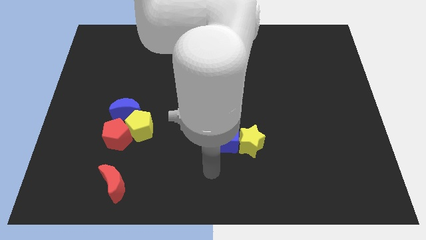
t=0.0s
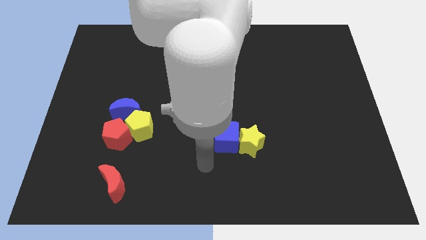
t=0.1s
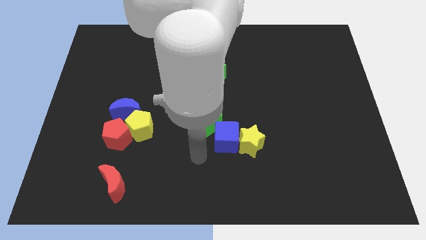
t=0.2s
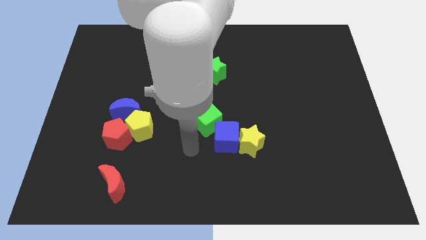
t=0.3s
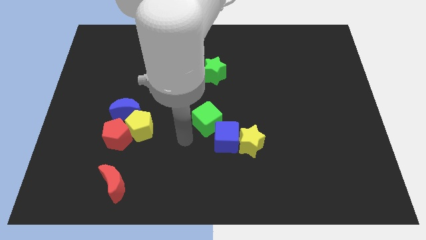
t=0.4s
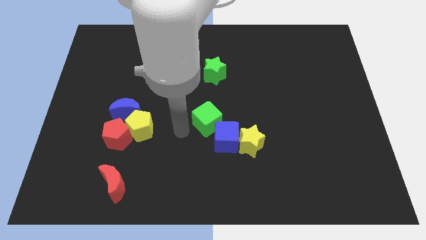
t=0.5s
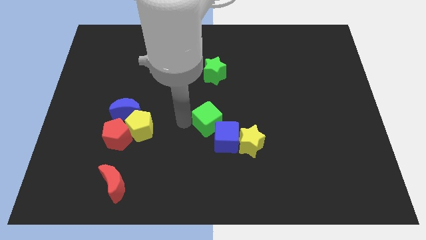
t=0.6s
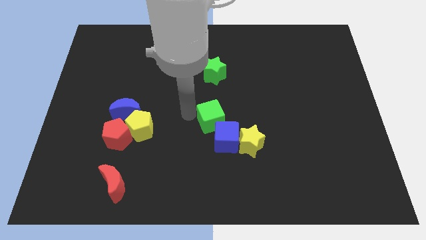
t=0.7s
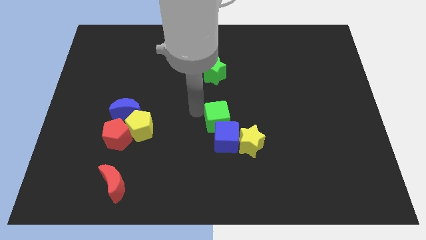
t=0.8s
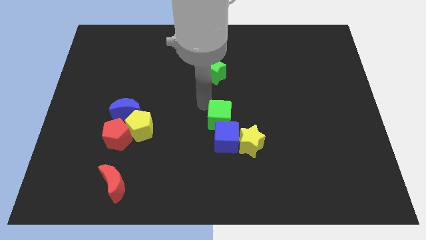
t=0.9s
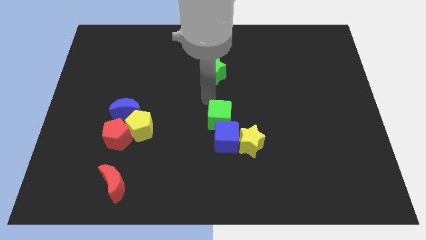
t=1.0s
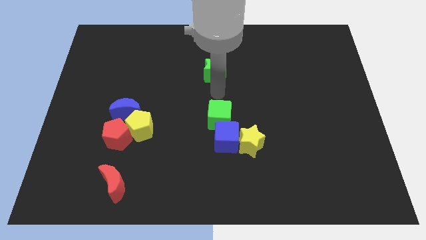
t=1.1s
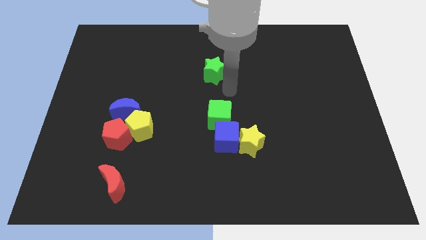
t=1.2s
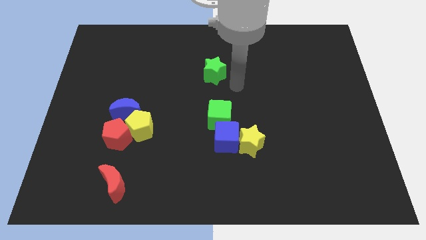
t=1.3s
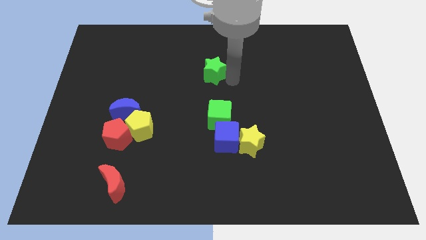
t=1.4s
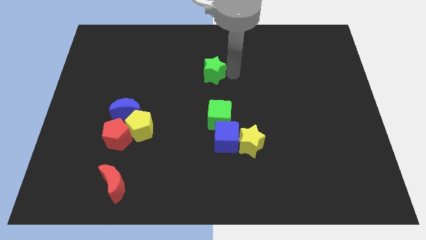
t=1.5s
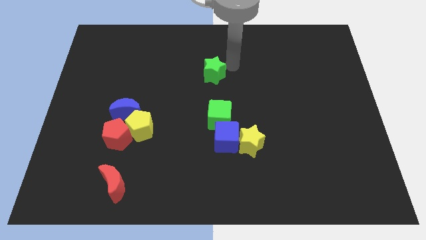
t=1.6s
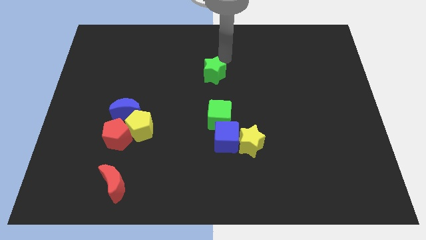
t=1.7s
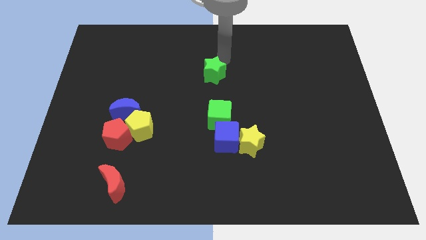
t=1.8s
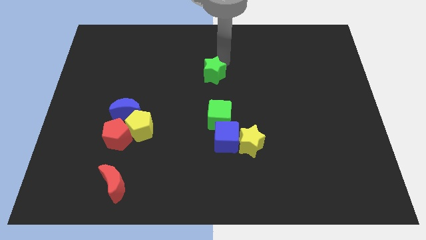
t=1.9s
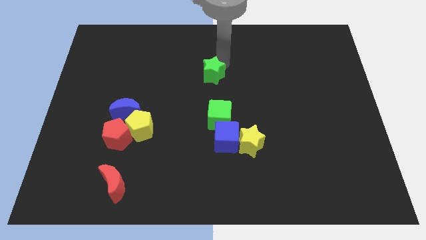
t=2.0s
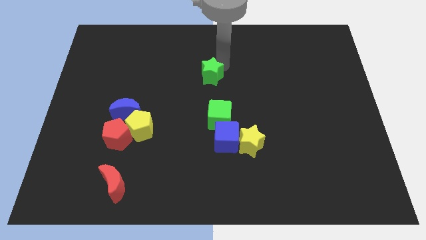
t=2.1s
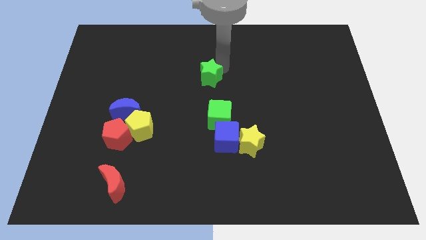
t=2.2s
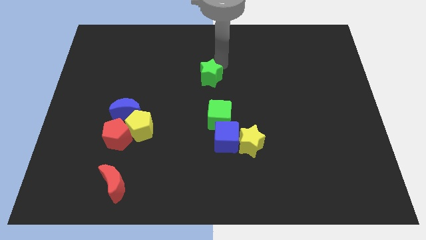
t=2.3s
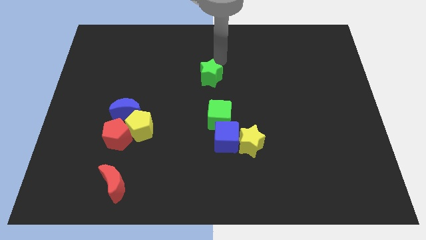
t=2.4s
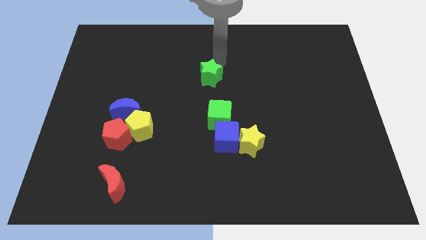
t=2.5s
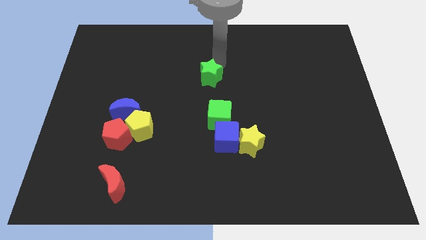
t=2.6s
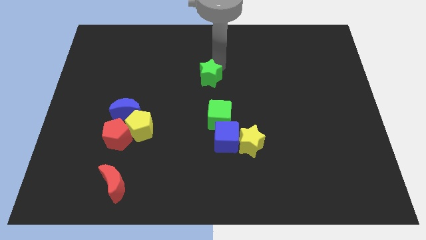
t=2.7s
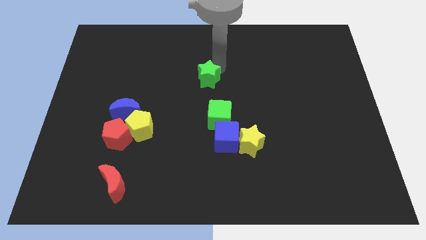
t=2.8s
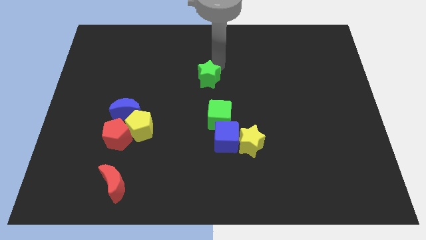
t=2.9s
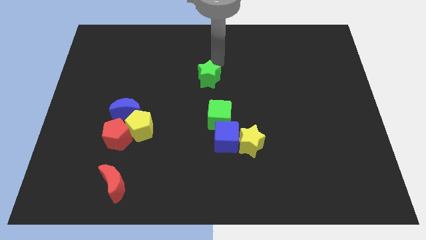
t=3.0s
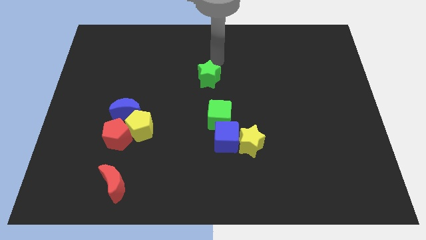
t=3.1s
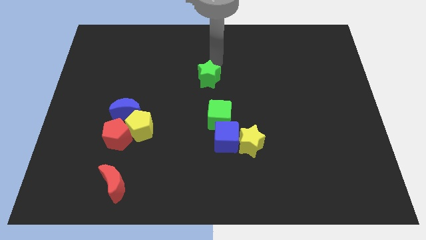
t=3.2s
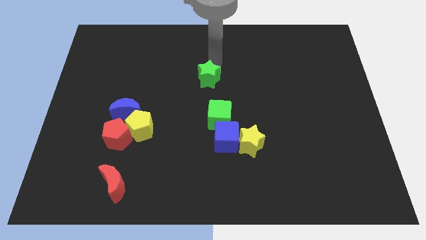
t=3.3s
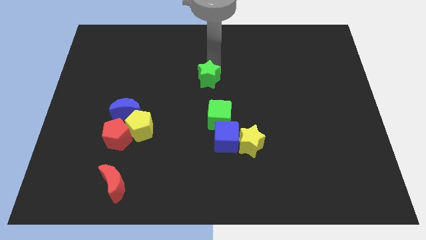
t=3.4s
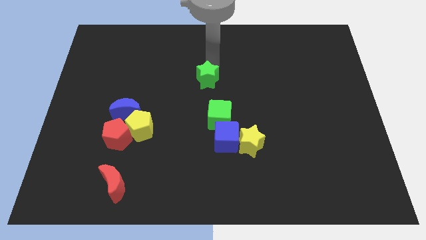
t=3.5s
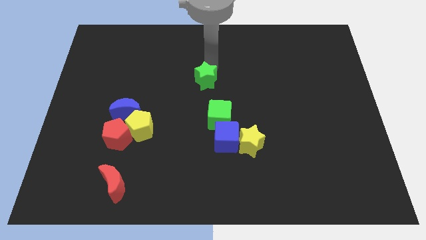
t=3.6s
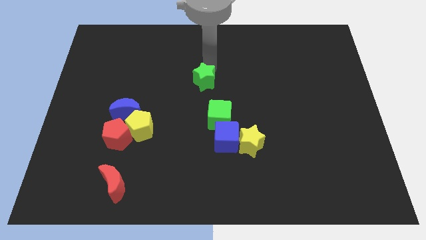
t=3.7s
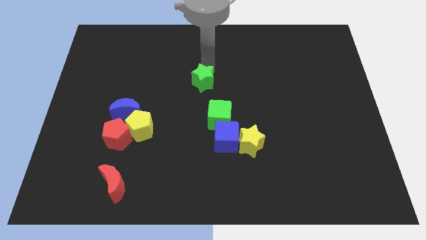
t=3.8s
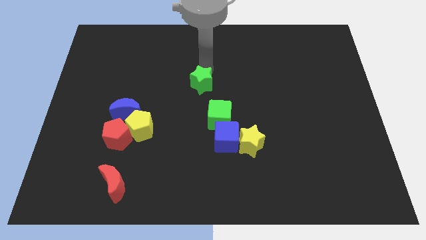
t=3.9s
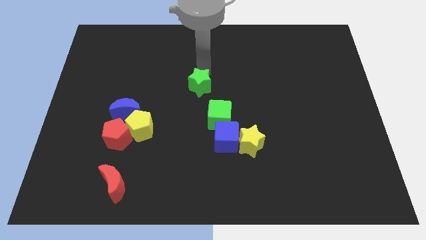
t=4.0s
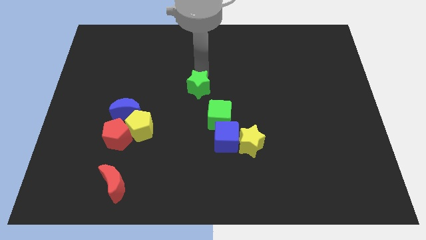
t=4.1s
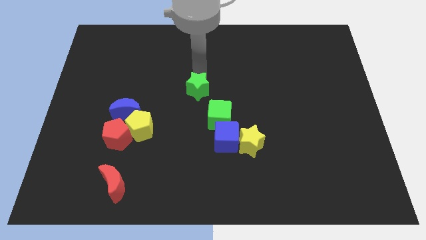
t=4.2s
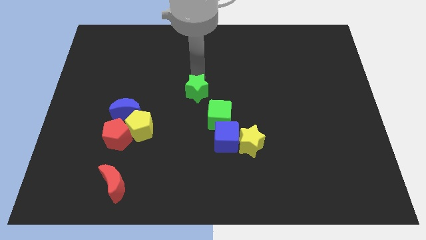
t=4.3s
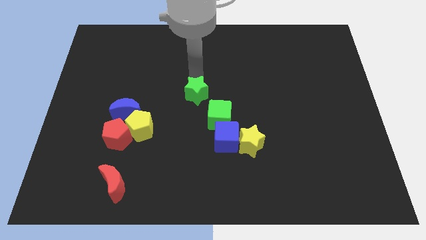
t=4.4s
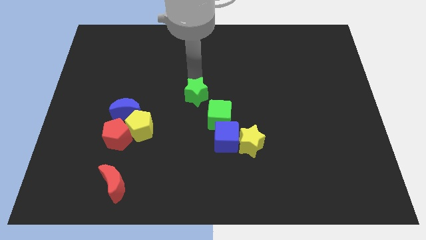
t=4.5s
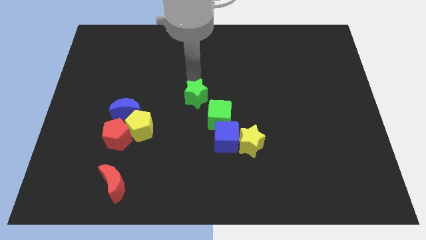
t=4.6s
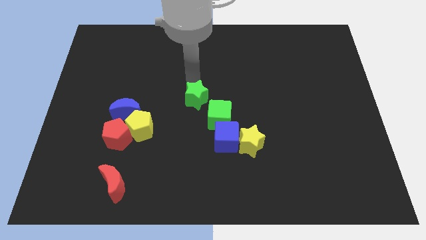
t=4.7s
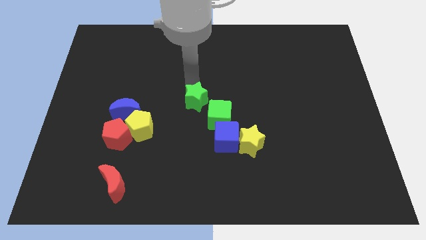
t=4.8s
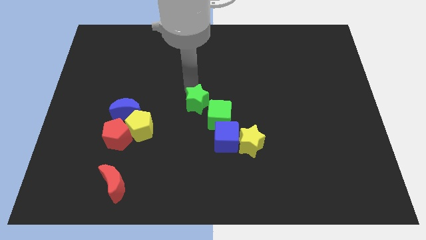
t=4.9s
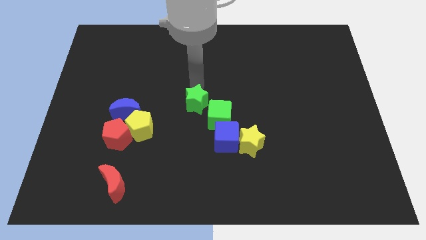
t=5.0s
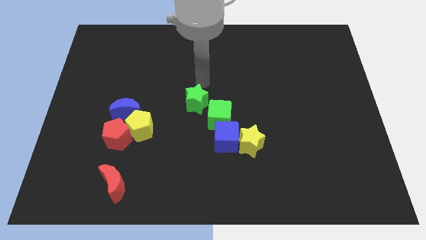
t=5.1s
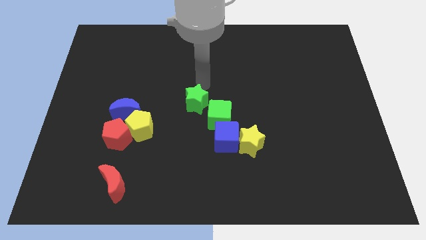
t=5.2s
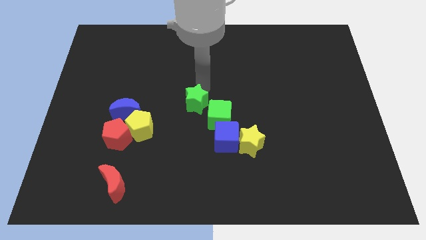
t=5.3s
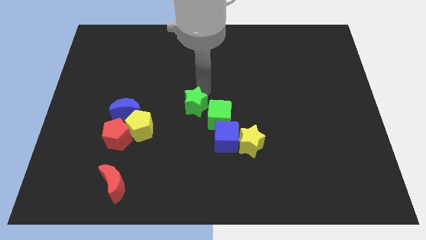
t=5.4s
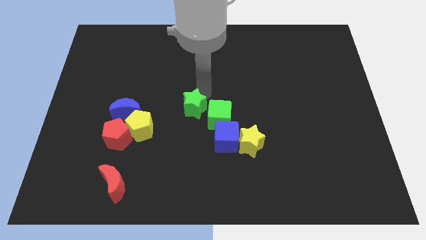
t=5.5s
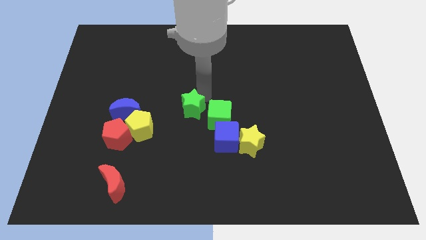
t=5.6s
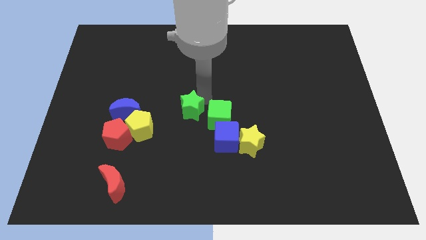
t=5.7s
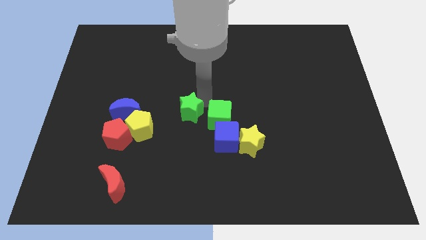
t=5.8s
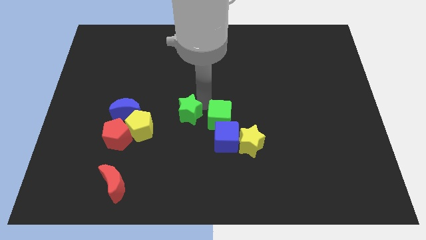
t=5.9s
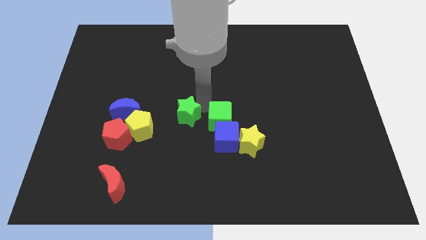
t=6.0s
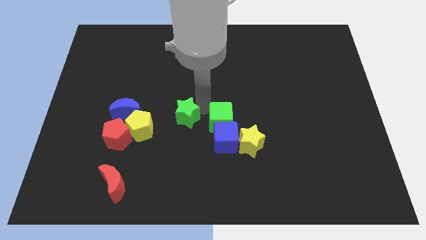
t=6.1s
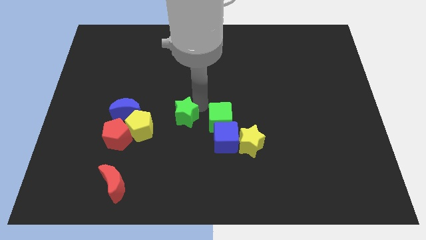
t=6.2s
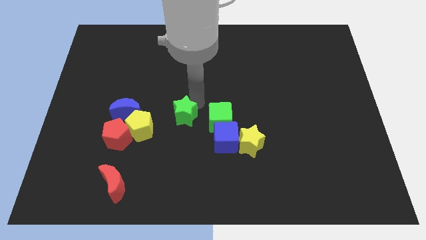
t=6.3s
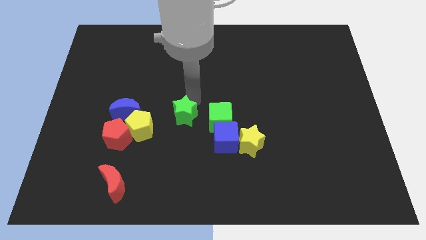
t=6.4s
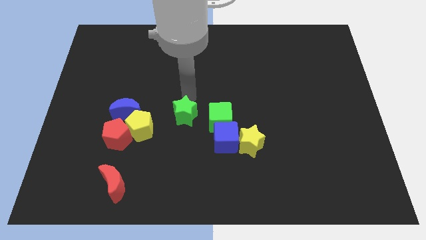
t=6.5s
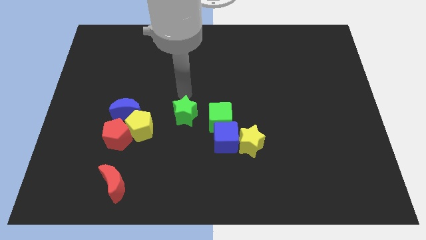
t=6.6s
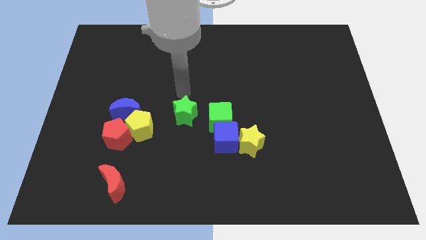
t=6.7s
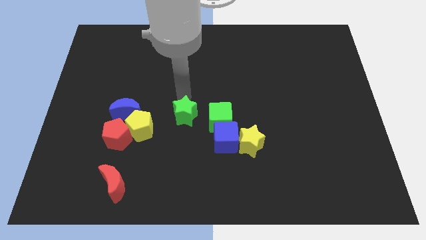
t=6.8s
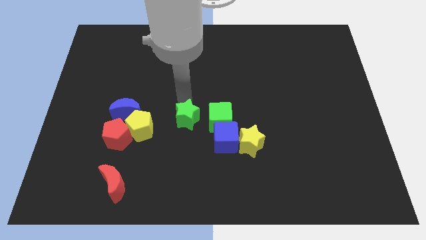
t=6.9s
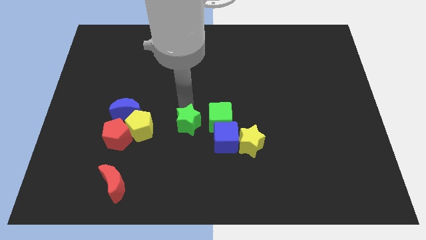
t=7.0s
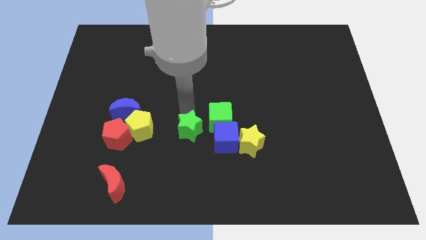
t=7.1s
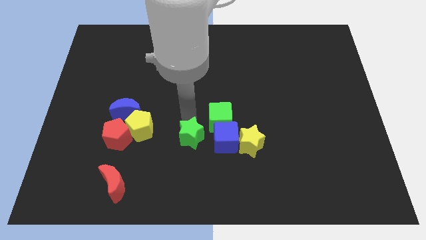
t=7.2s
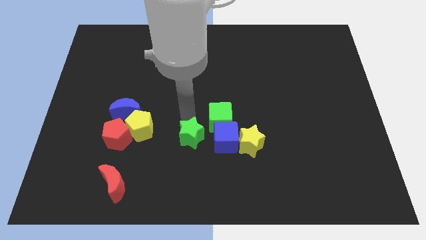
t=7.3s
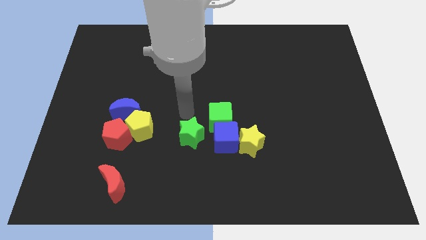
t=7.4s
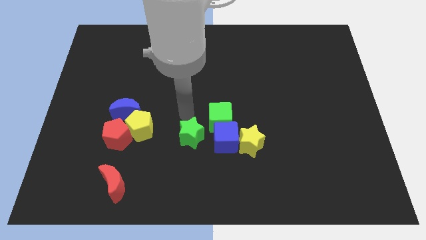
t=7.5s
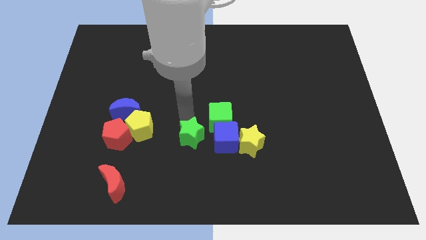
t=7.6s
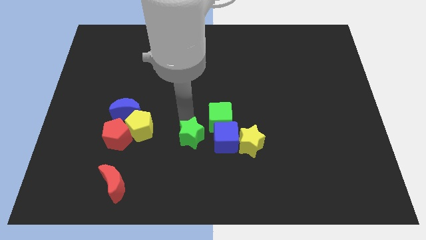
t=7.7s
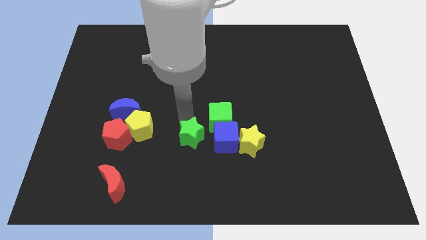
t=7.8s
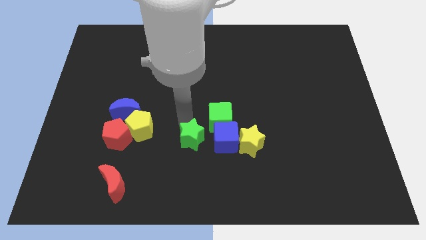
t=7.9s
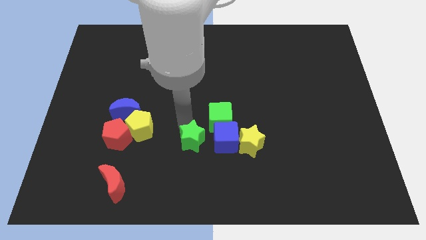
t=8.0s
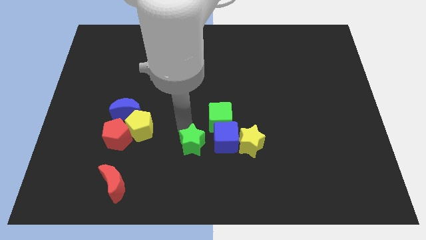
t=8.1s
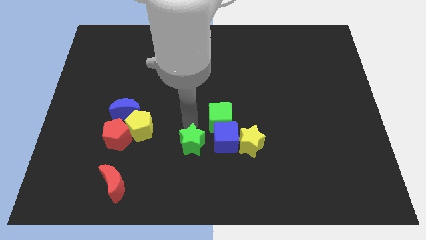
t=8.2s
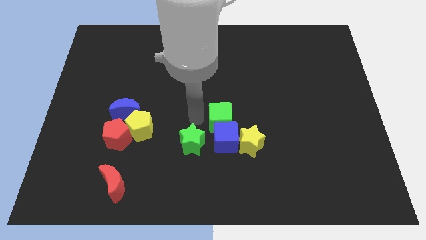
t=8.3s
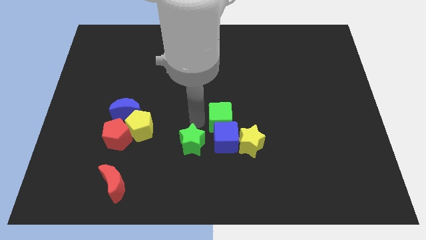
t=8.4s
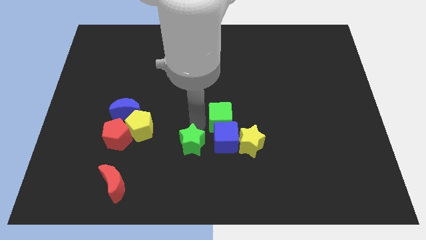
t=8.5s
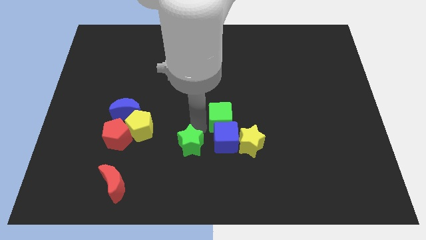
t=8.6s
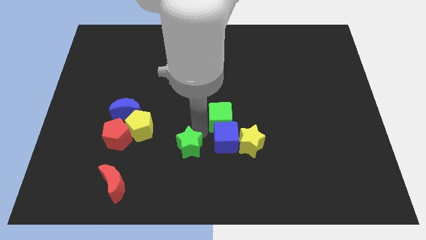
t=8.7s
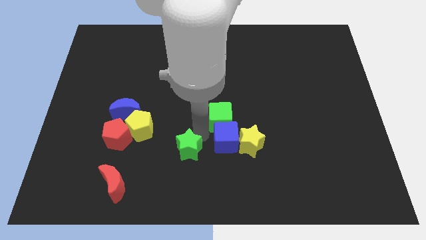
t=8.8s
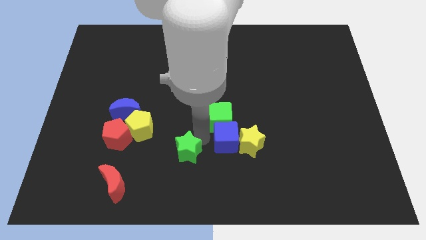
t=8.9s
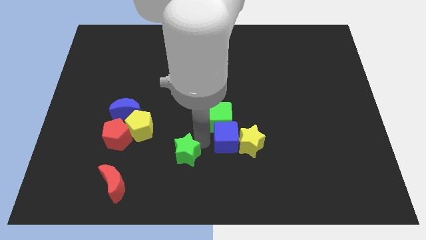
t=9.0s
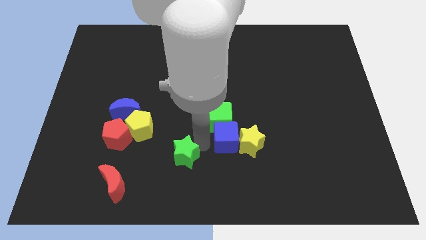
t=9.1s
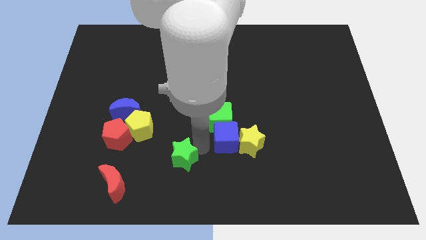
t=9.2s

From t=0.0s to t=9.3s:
slide the green star to the bottom
